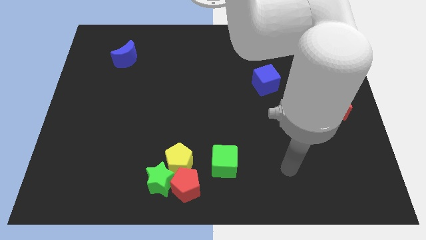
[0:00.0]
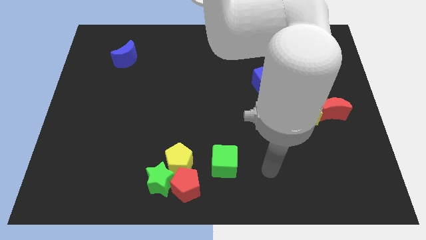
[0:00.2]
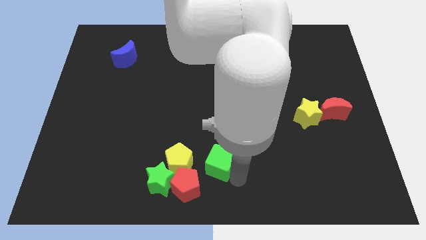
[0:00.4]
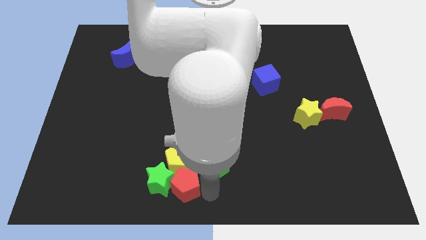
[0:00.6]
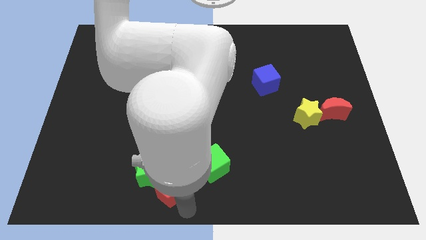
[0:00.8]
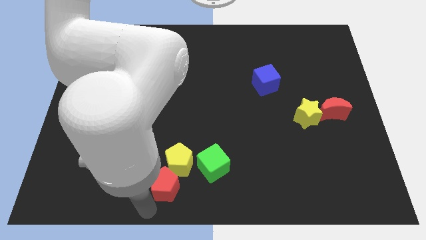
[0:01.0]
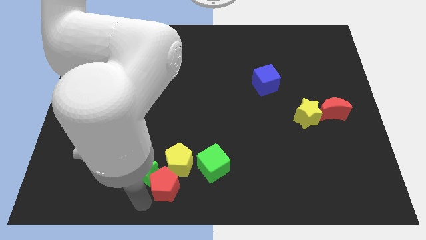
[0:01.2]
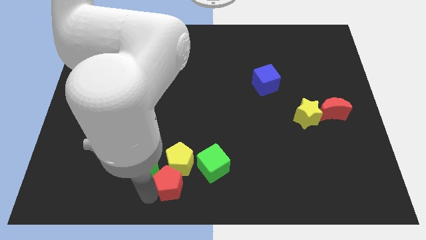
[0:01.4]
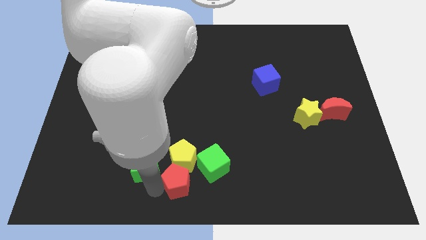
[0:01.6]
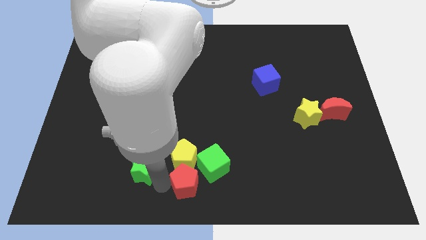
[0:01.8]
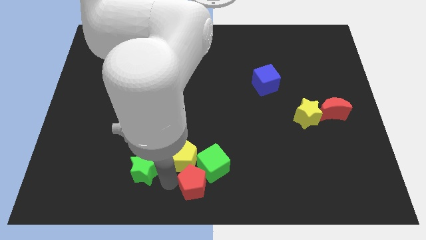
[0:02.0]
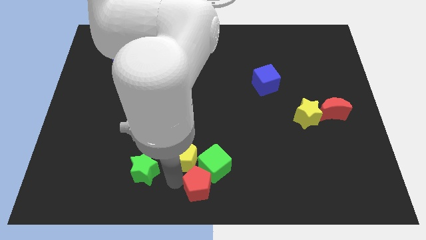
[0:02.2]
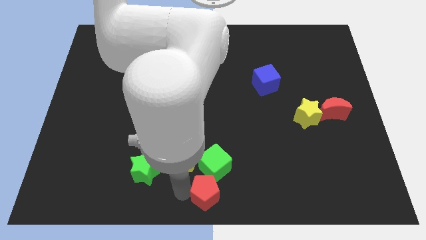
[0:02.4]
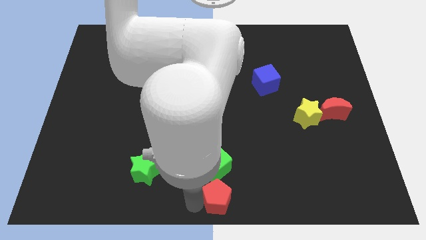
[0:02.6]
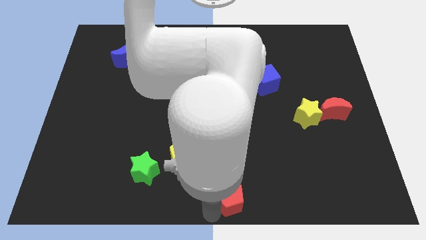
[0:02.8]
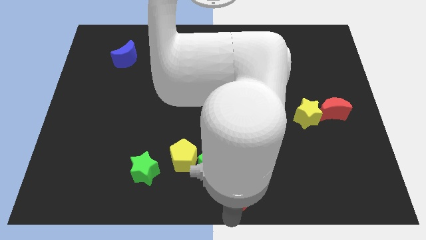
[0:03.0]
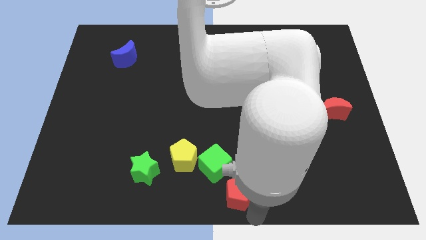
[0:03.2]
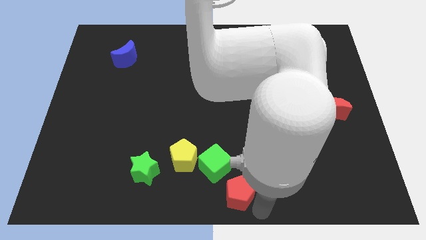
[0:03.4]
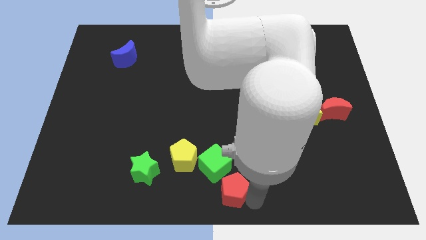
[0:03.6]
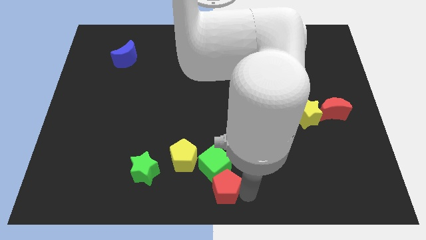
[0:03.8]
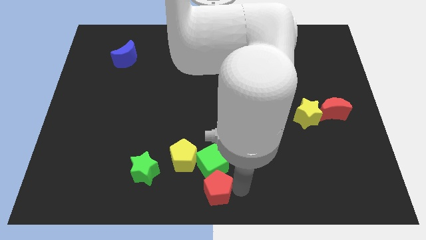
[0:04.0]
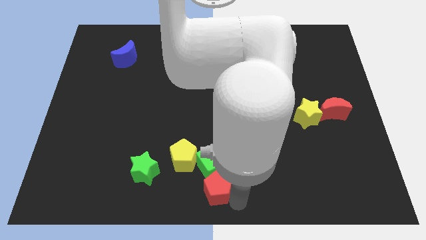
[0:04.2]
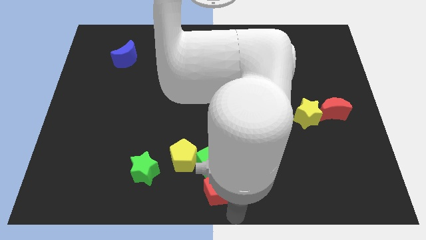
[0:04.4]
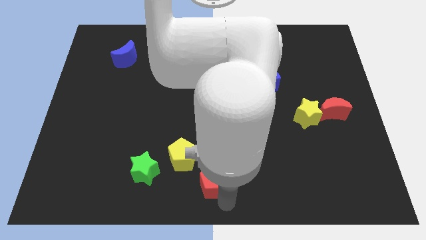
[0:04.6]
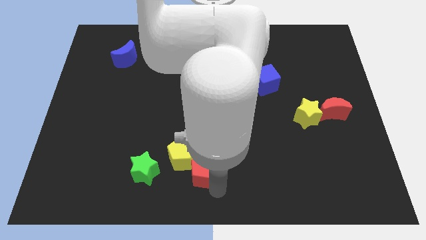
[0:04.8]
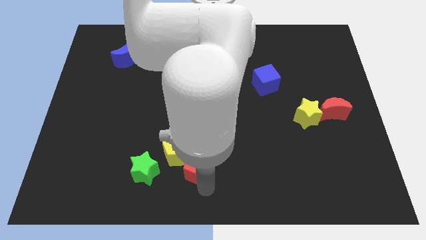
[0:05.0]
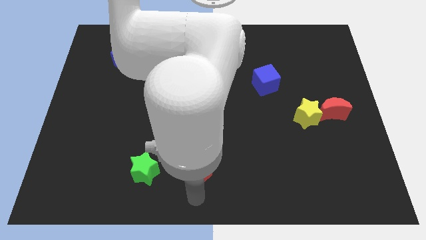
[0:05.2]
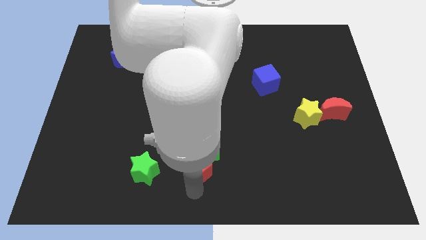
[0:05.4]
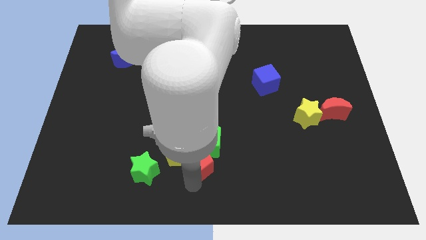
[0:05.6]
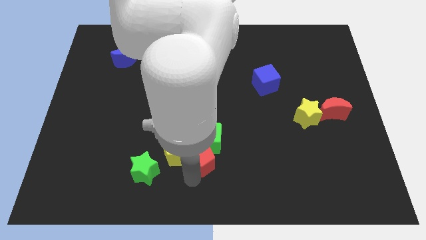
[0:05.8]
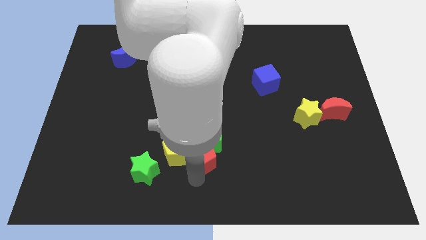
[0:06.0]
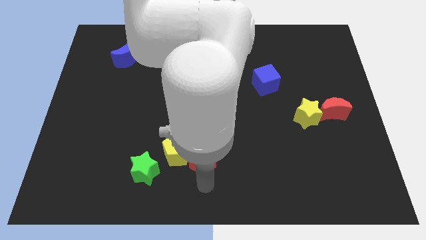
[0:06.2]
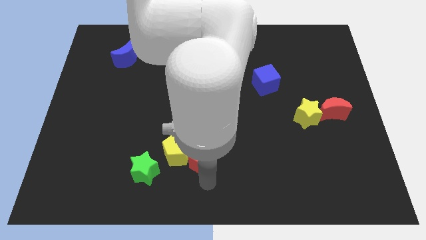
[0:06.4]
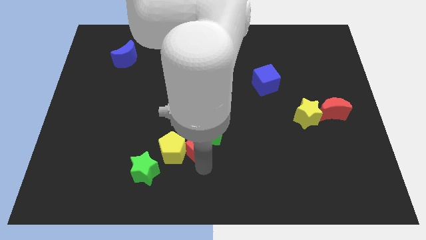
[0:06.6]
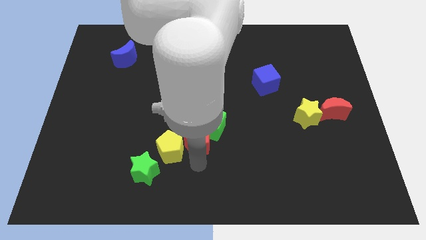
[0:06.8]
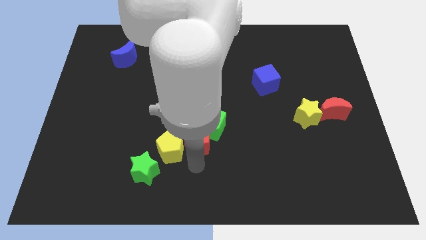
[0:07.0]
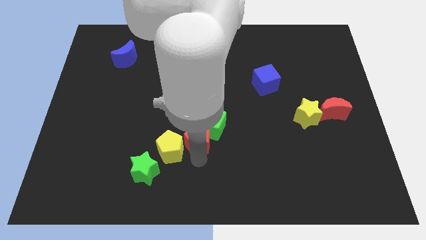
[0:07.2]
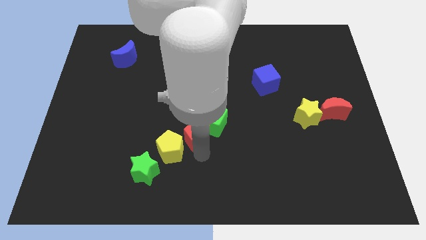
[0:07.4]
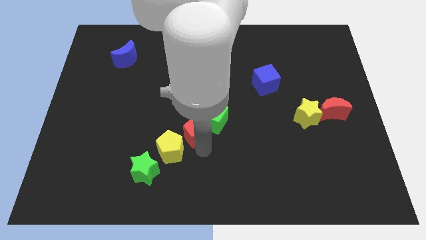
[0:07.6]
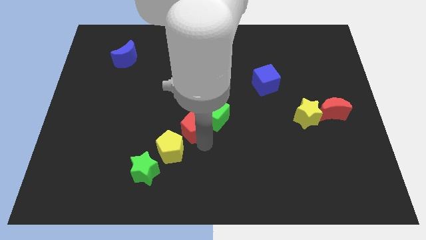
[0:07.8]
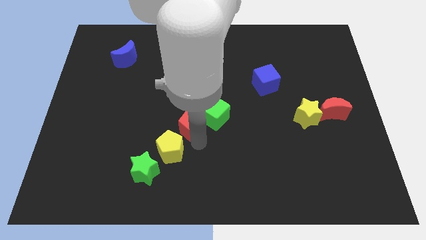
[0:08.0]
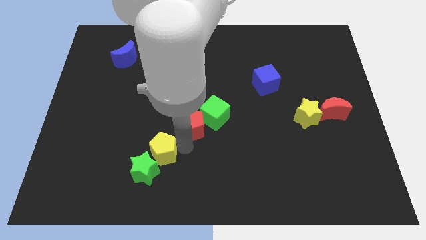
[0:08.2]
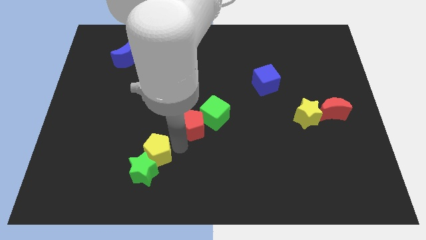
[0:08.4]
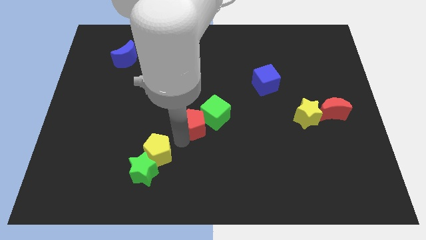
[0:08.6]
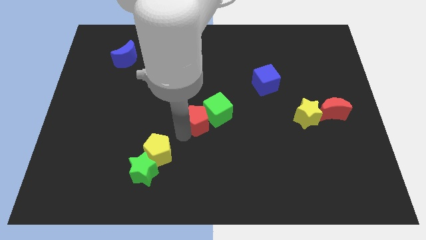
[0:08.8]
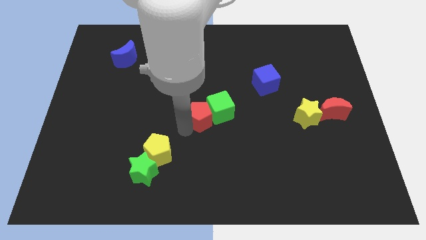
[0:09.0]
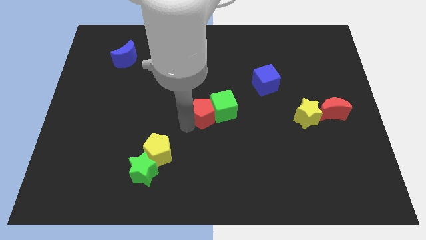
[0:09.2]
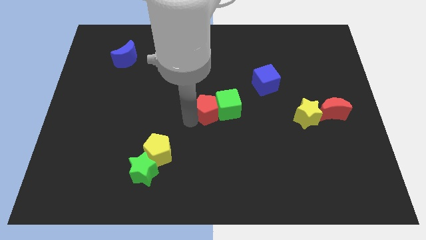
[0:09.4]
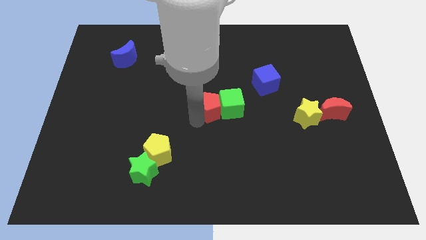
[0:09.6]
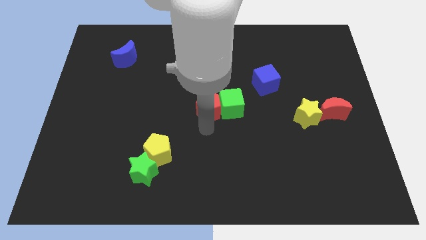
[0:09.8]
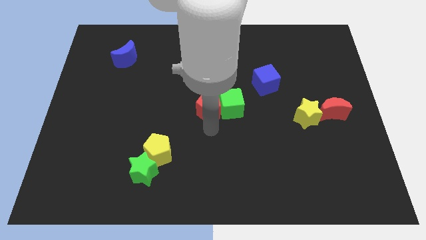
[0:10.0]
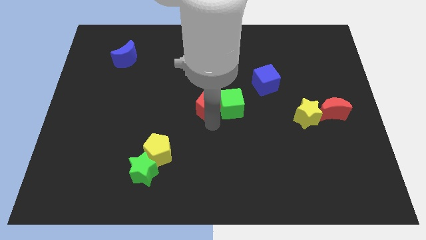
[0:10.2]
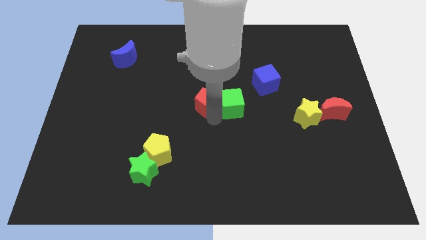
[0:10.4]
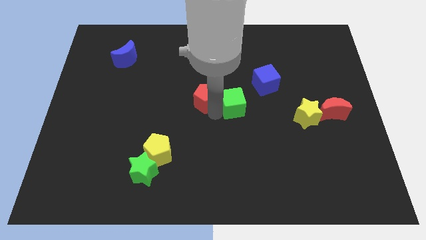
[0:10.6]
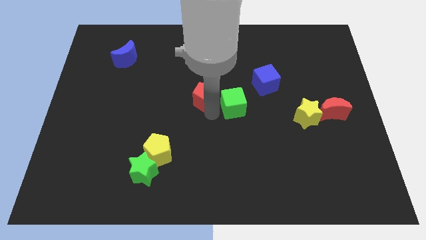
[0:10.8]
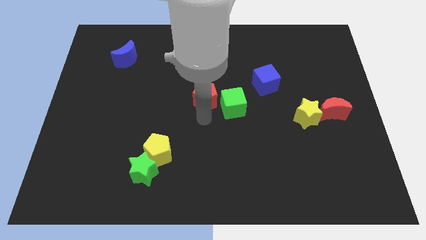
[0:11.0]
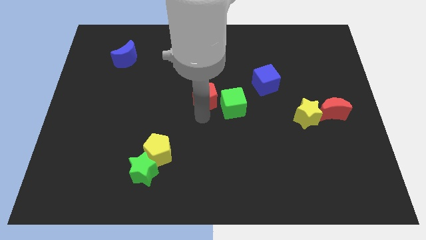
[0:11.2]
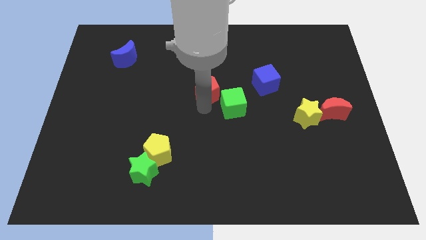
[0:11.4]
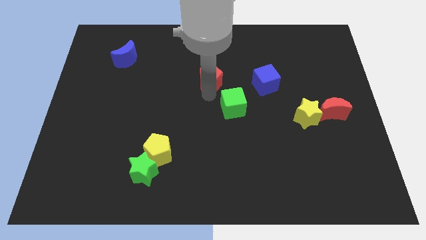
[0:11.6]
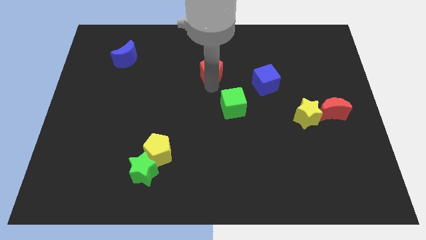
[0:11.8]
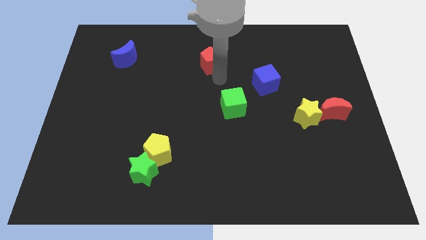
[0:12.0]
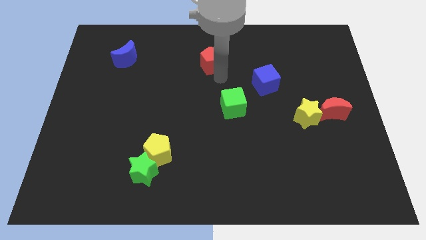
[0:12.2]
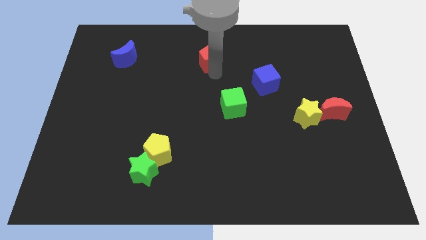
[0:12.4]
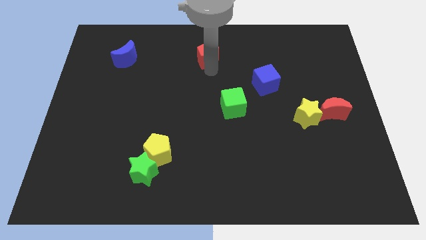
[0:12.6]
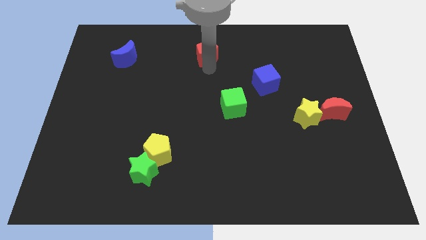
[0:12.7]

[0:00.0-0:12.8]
slide the red pentagon to the top side

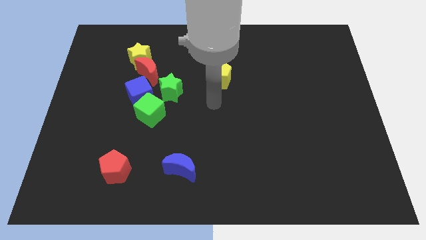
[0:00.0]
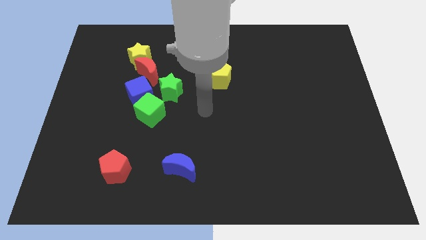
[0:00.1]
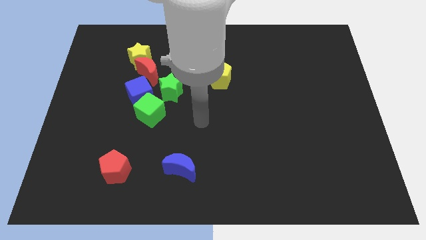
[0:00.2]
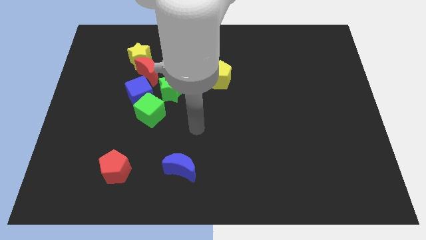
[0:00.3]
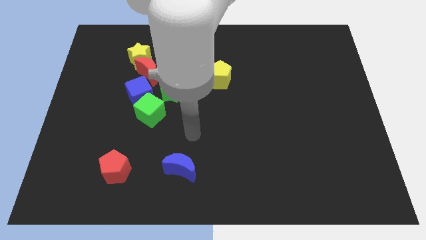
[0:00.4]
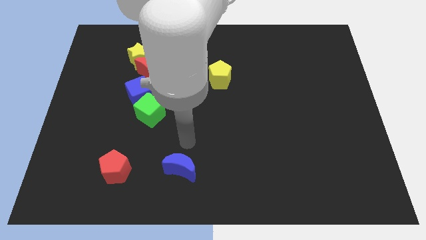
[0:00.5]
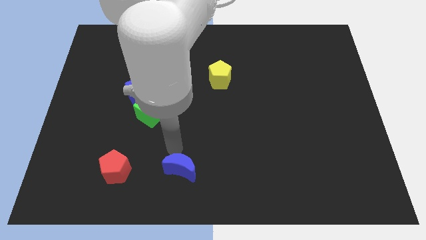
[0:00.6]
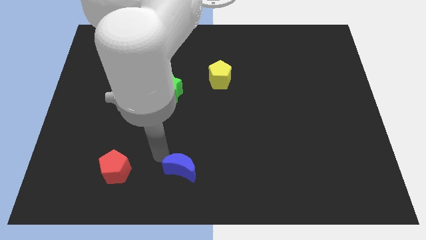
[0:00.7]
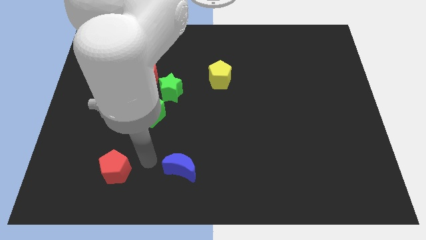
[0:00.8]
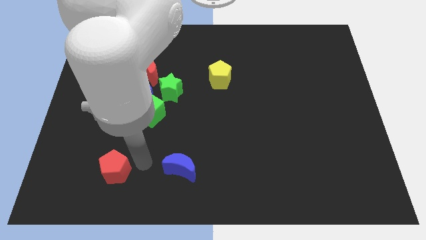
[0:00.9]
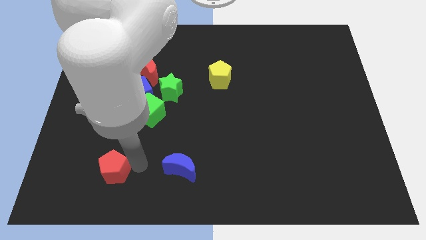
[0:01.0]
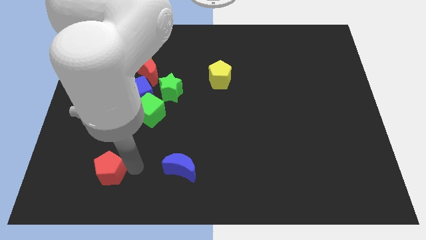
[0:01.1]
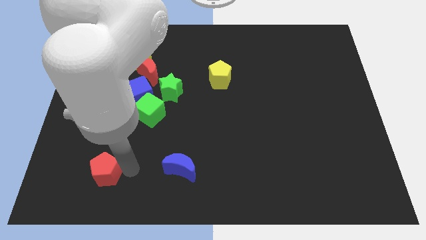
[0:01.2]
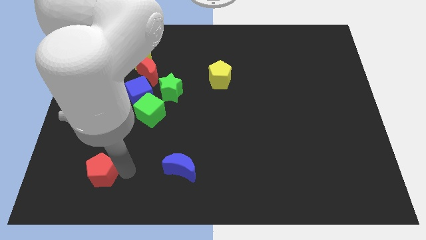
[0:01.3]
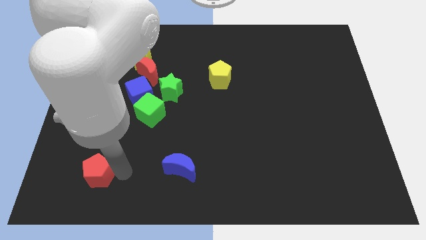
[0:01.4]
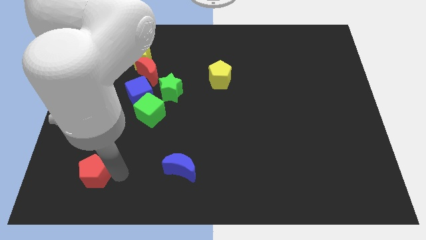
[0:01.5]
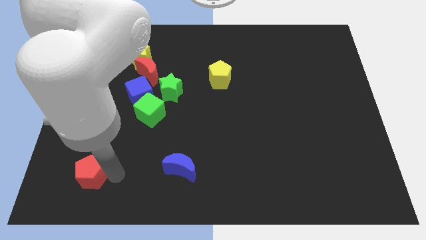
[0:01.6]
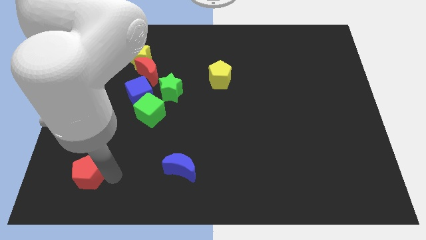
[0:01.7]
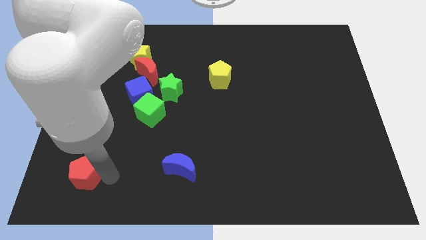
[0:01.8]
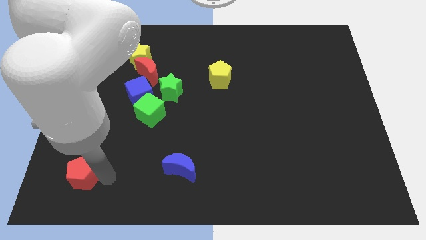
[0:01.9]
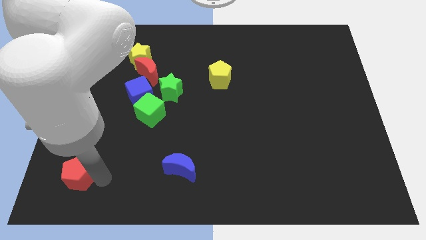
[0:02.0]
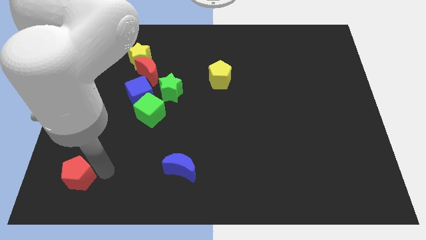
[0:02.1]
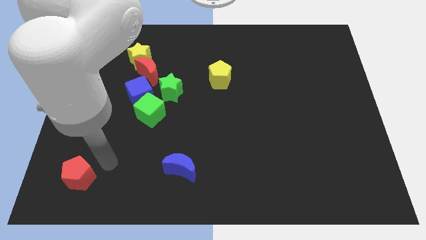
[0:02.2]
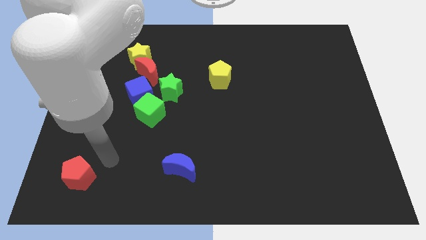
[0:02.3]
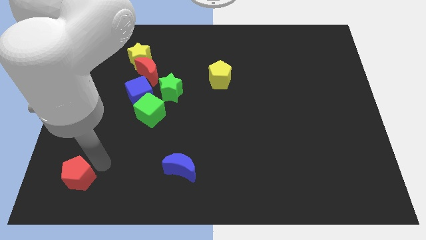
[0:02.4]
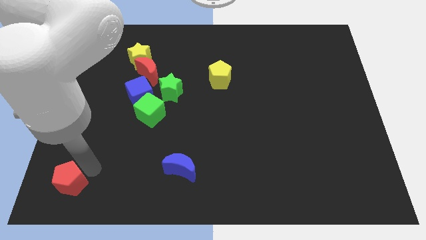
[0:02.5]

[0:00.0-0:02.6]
move the red pentagon to the bottom left
